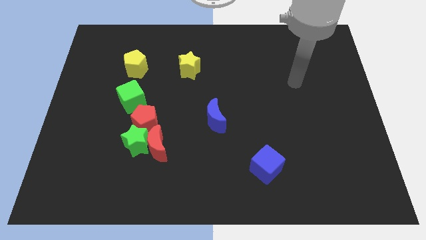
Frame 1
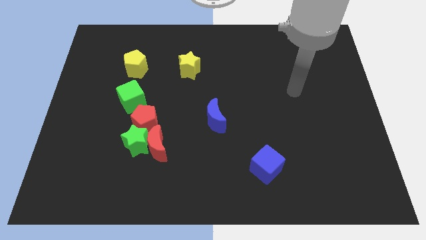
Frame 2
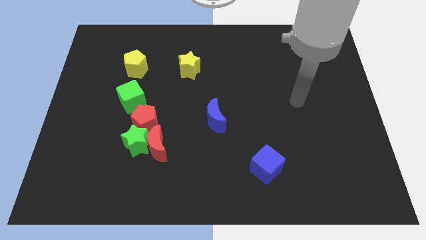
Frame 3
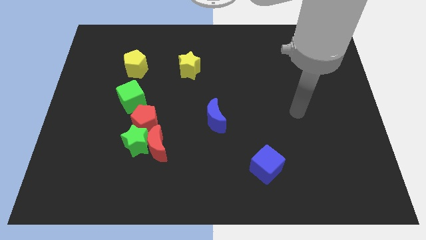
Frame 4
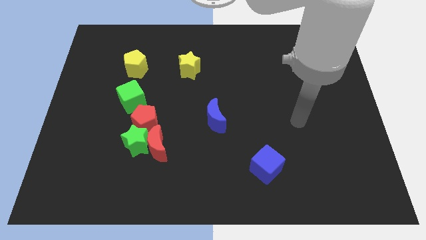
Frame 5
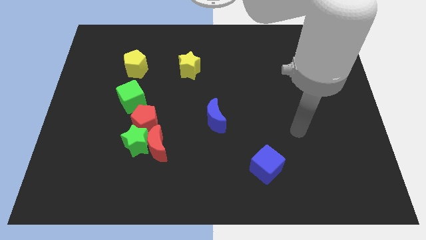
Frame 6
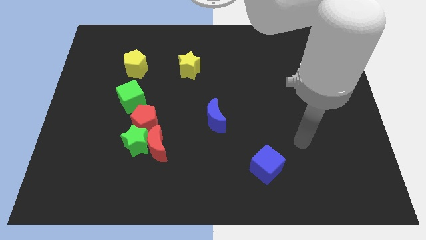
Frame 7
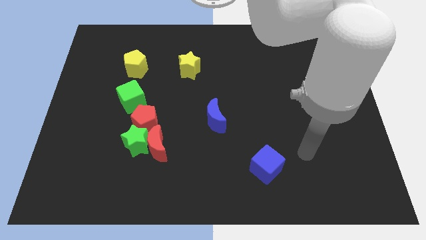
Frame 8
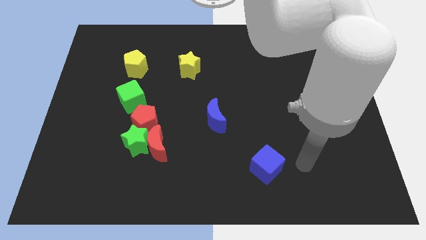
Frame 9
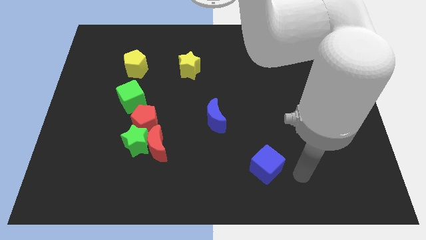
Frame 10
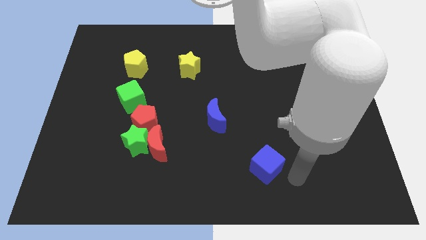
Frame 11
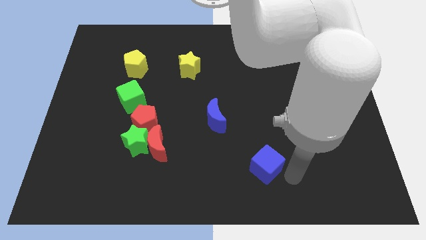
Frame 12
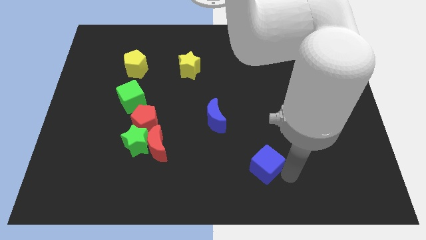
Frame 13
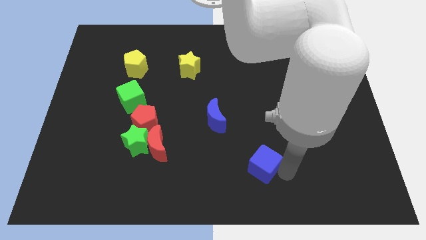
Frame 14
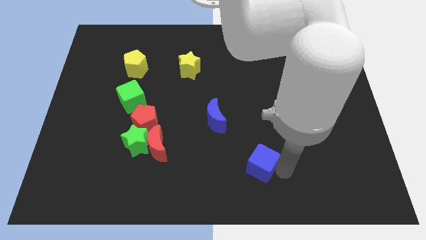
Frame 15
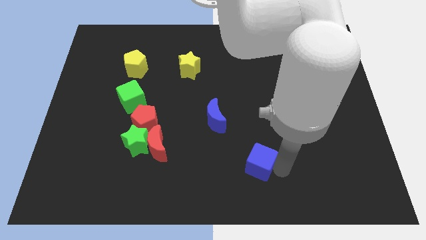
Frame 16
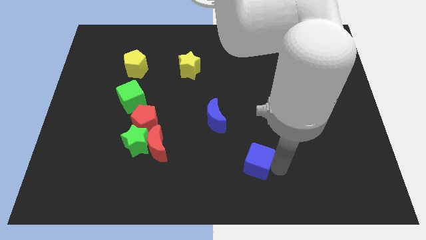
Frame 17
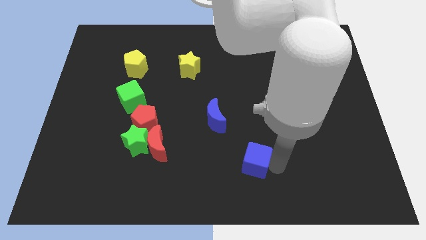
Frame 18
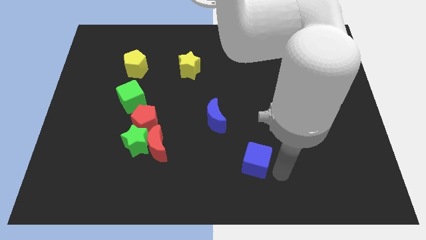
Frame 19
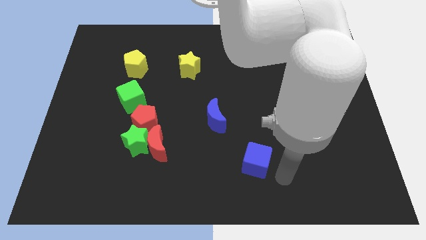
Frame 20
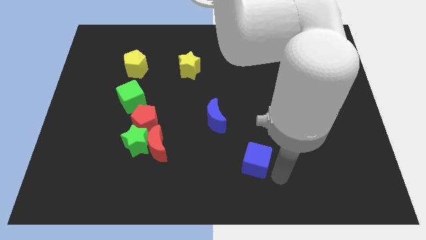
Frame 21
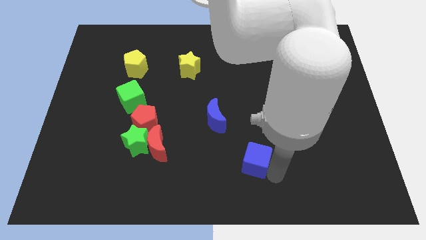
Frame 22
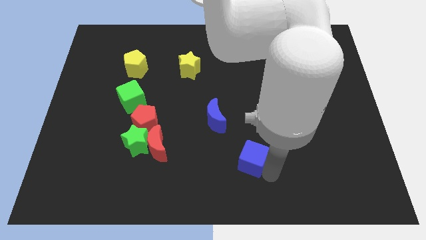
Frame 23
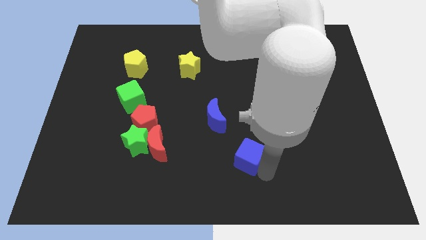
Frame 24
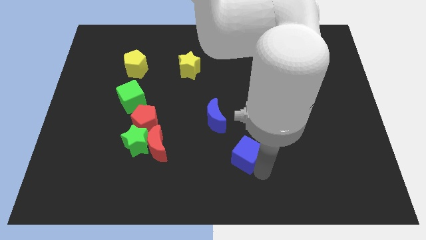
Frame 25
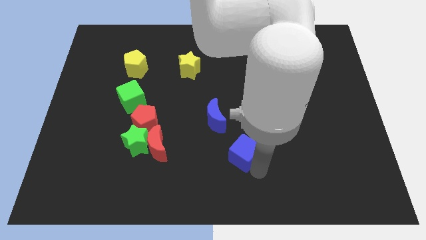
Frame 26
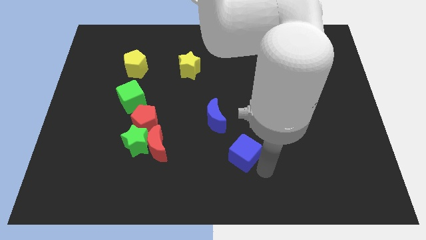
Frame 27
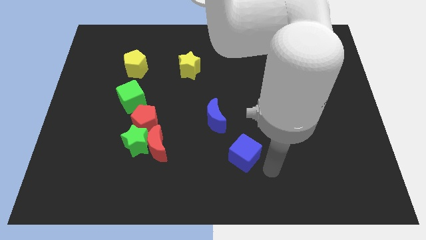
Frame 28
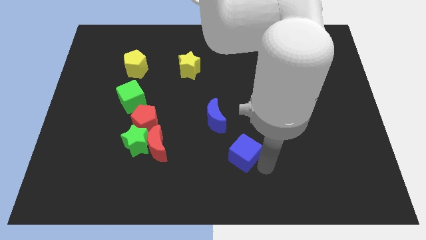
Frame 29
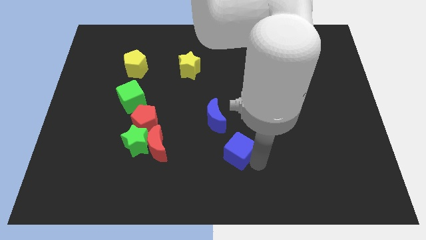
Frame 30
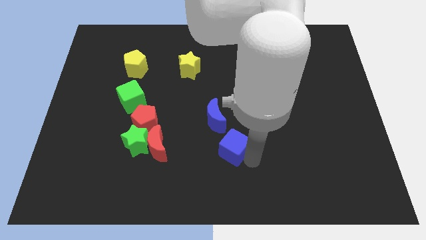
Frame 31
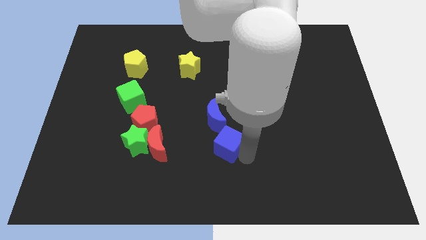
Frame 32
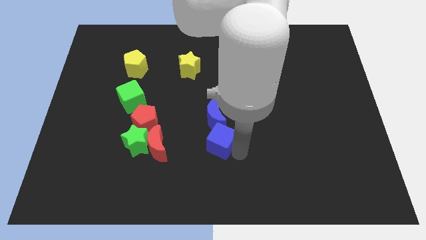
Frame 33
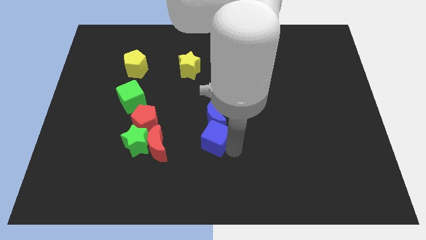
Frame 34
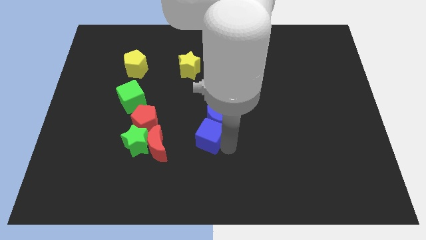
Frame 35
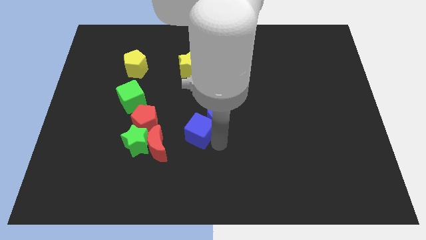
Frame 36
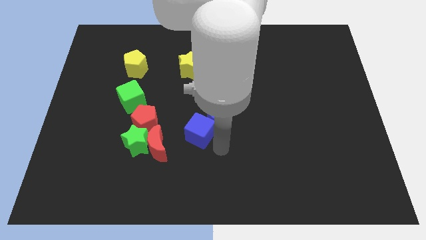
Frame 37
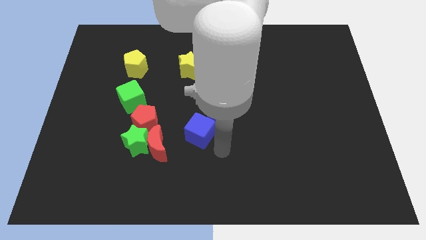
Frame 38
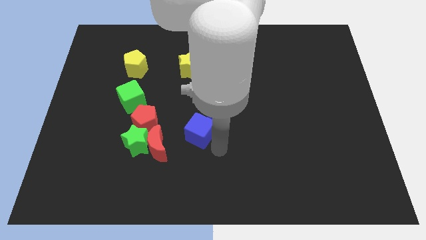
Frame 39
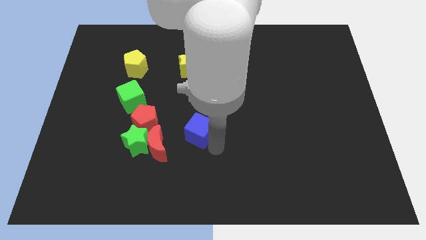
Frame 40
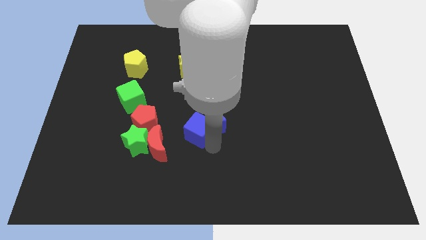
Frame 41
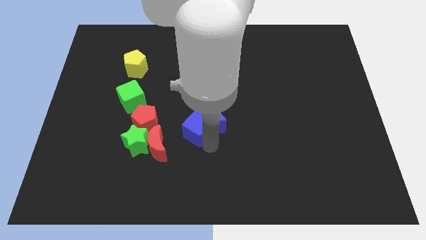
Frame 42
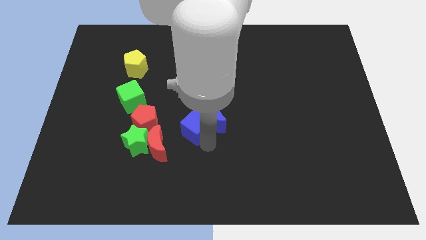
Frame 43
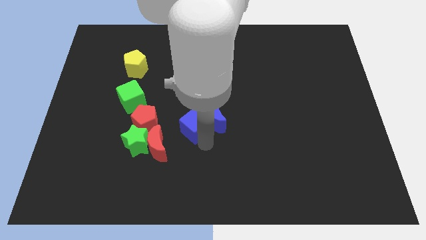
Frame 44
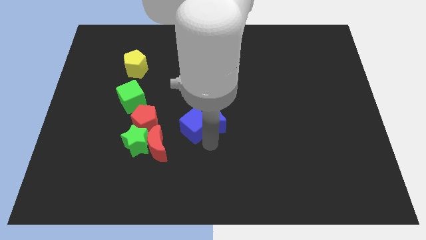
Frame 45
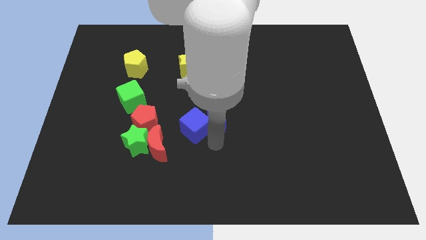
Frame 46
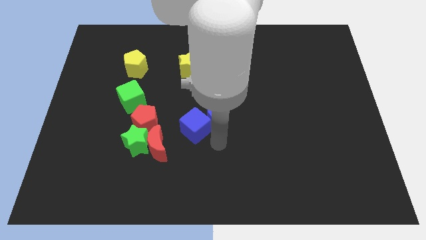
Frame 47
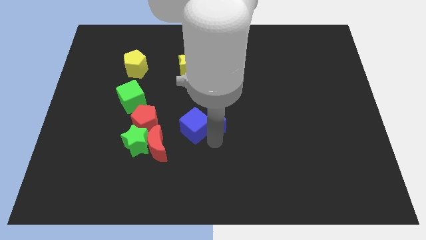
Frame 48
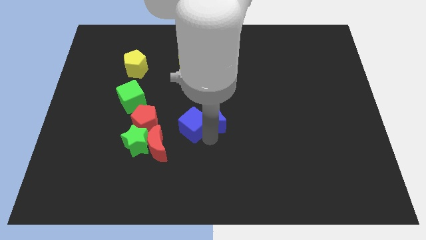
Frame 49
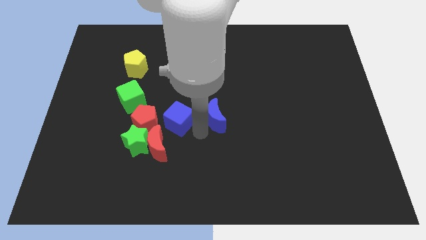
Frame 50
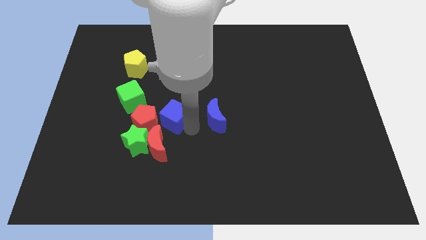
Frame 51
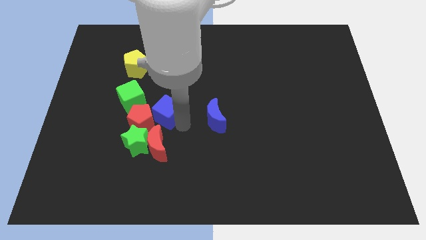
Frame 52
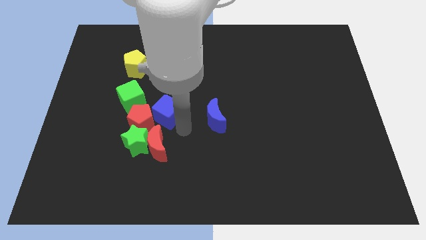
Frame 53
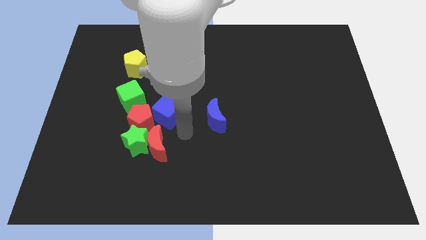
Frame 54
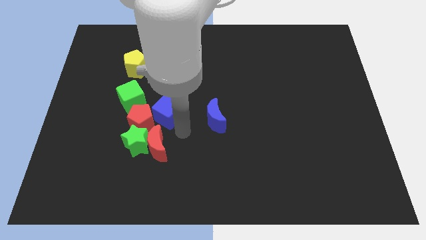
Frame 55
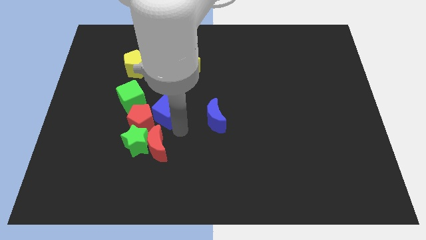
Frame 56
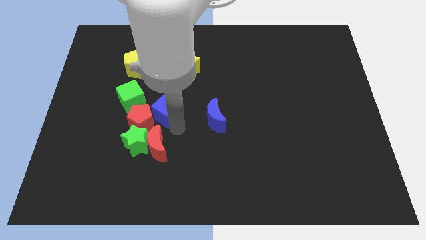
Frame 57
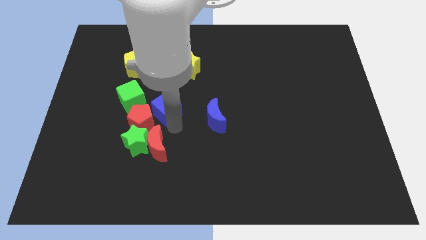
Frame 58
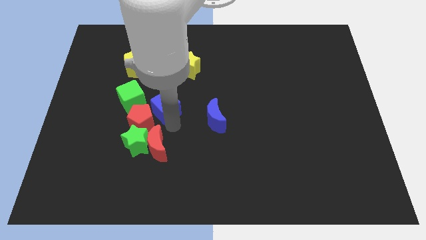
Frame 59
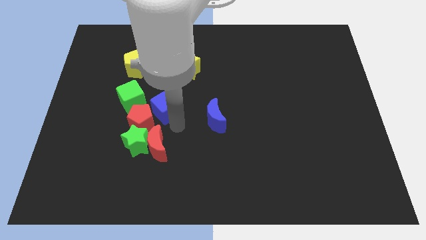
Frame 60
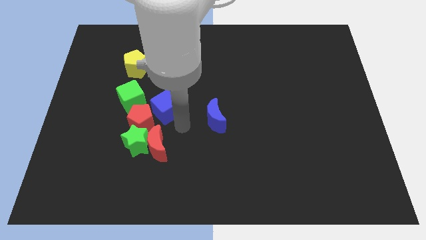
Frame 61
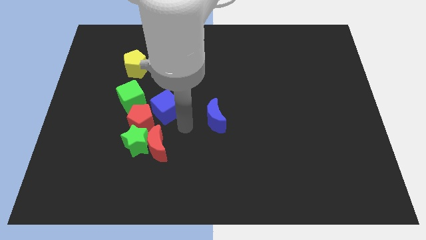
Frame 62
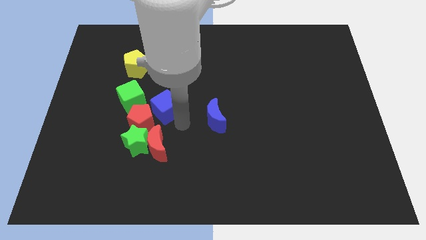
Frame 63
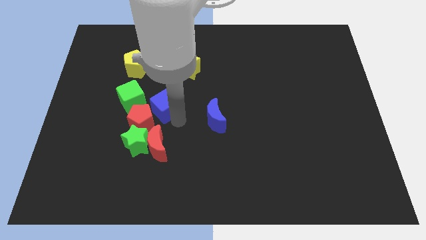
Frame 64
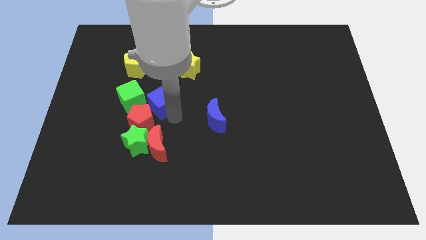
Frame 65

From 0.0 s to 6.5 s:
push the blue cube above the green star

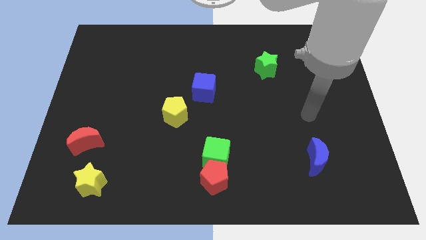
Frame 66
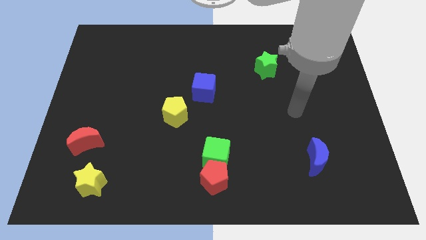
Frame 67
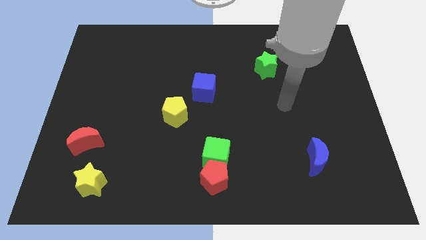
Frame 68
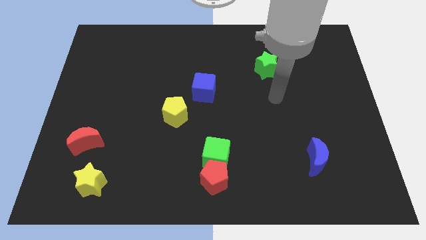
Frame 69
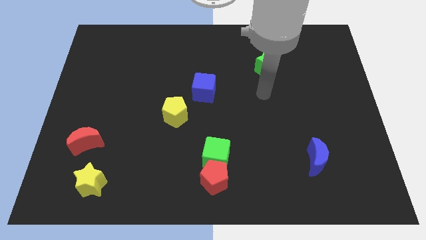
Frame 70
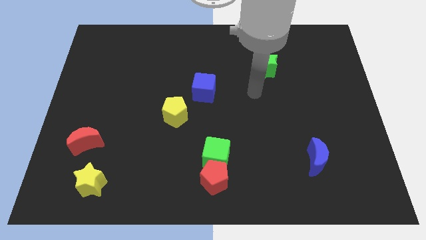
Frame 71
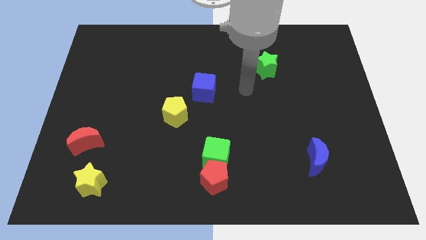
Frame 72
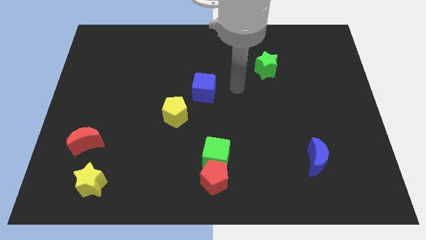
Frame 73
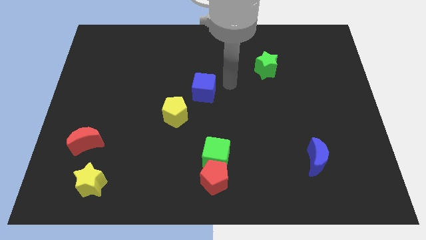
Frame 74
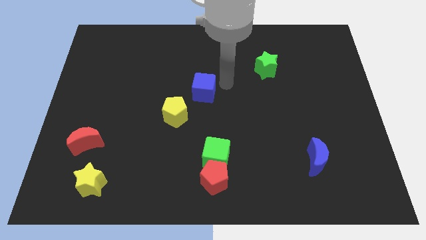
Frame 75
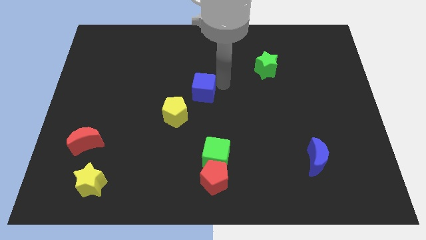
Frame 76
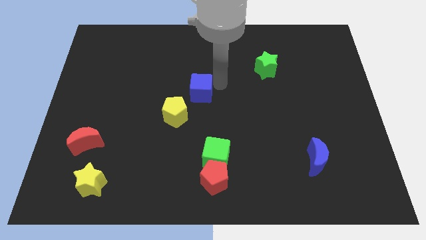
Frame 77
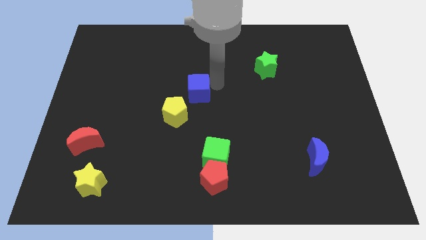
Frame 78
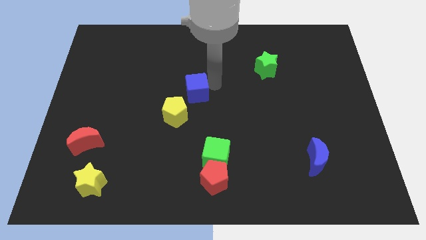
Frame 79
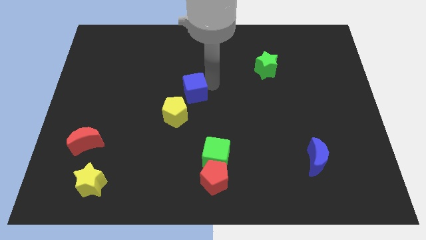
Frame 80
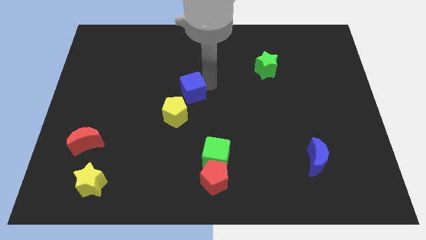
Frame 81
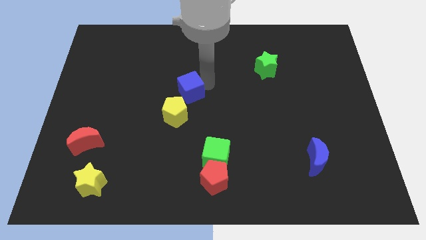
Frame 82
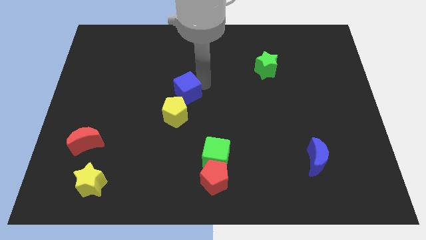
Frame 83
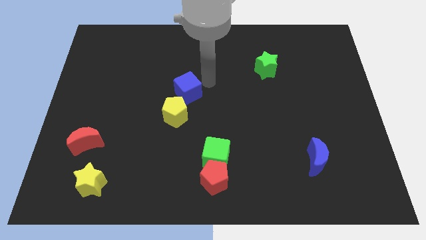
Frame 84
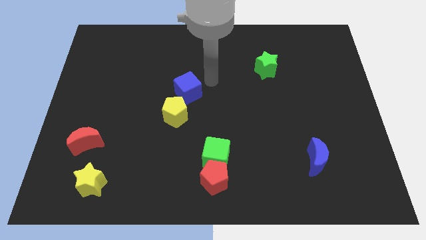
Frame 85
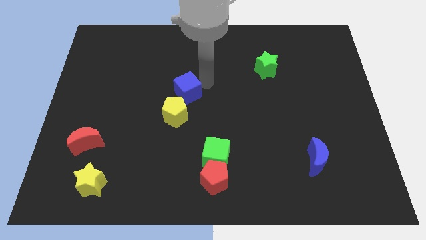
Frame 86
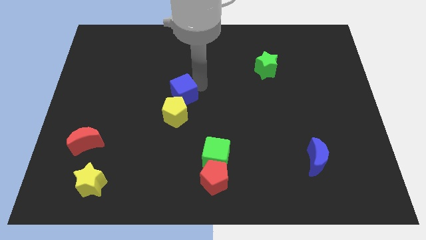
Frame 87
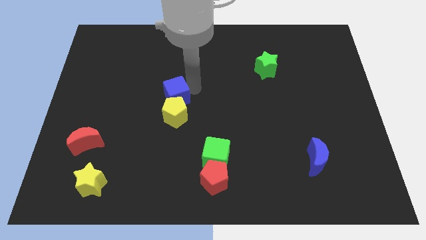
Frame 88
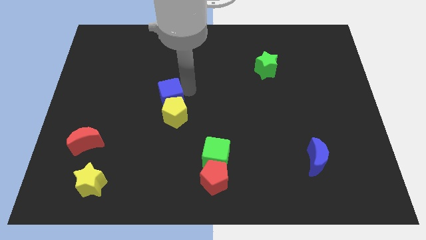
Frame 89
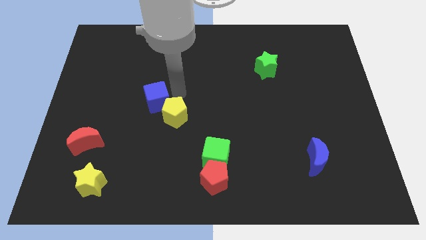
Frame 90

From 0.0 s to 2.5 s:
move the blue cube to the left side of the yellow pentagon
